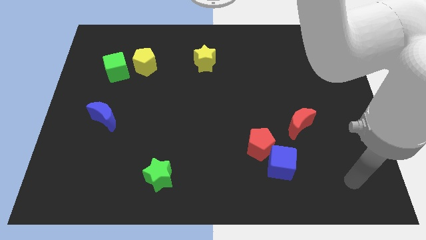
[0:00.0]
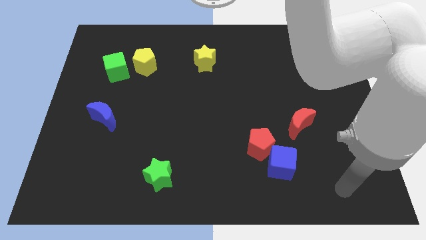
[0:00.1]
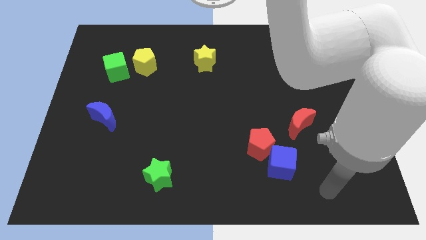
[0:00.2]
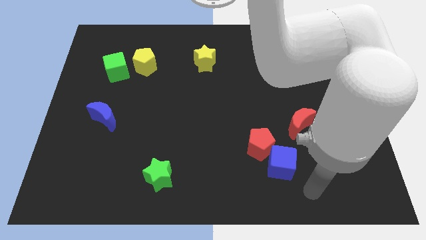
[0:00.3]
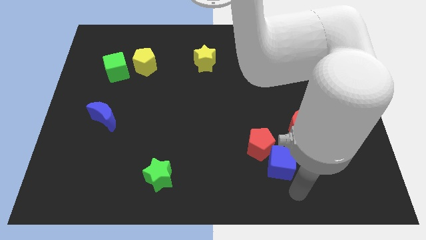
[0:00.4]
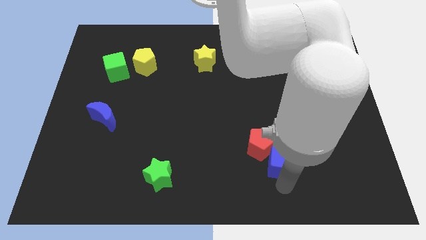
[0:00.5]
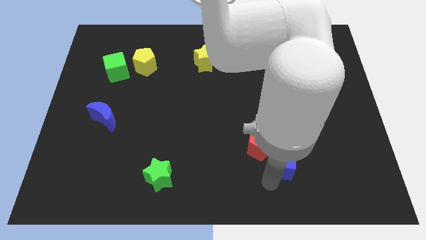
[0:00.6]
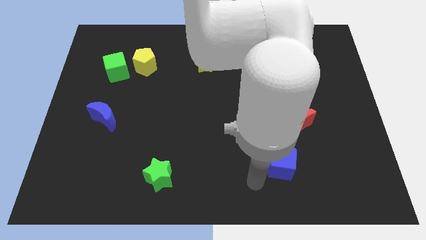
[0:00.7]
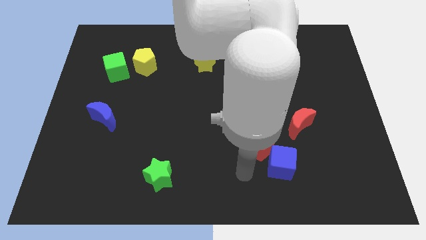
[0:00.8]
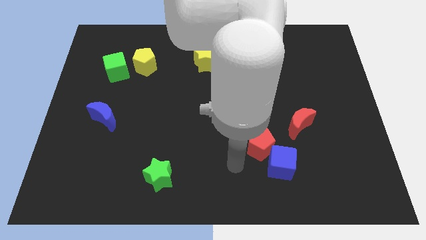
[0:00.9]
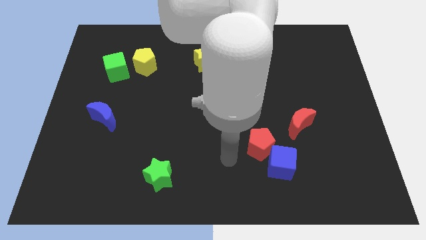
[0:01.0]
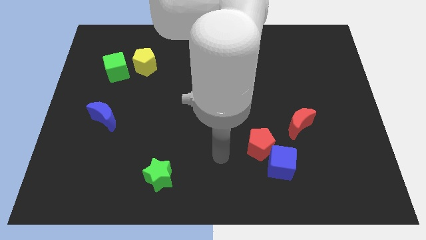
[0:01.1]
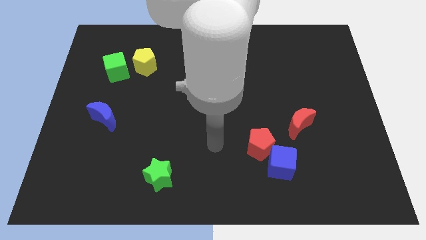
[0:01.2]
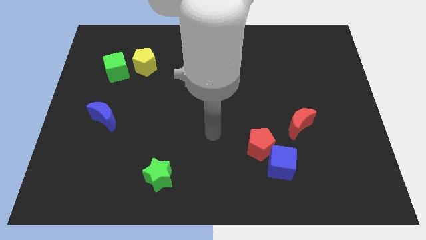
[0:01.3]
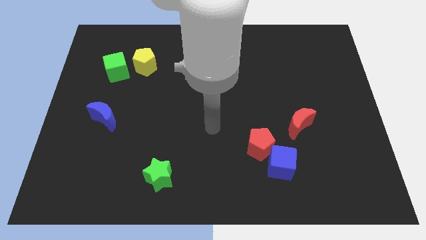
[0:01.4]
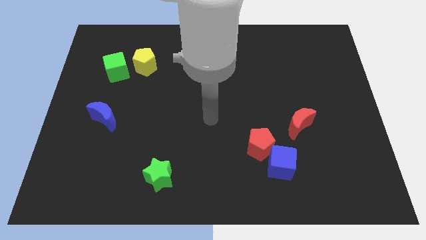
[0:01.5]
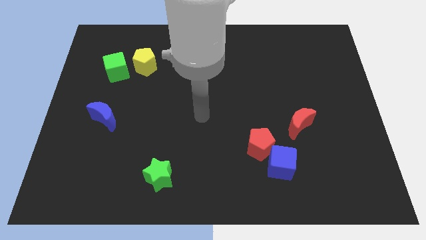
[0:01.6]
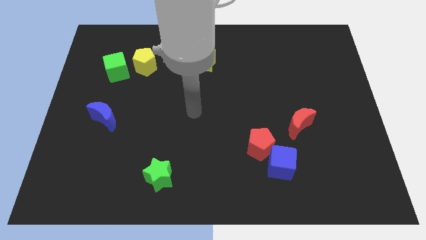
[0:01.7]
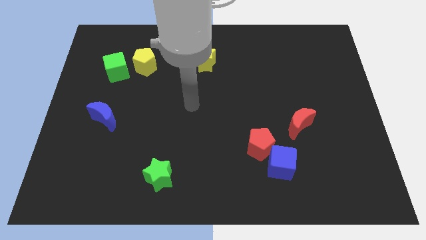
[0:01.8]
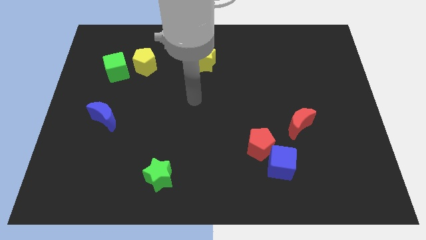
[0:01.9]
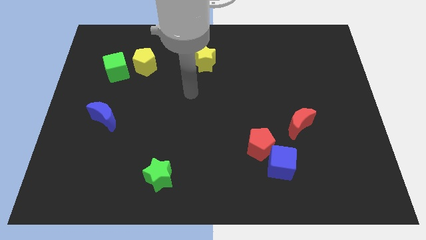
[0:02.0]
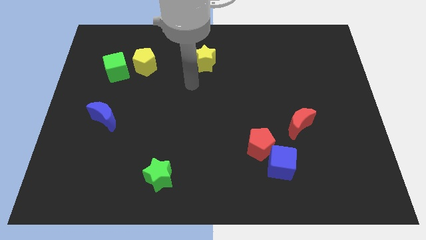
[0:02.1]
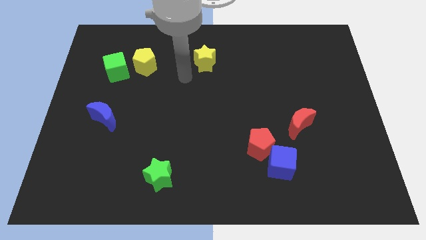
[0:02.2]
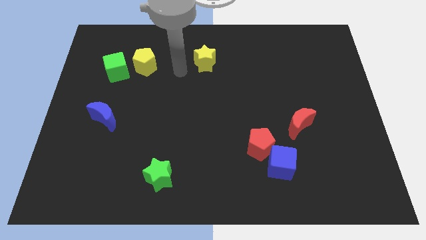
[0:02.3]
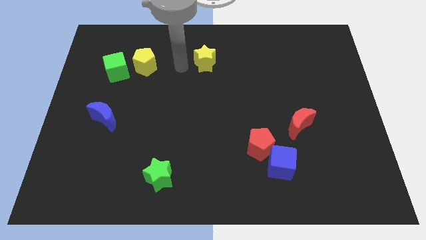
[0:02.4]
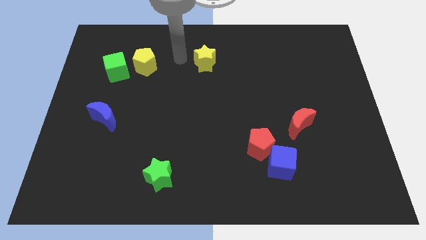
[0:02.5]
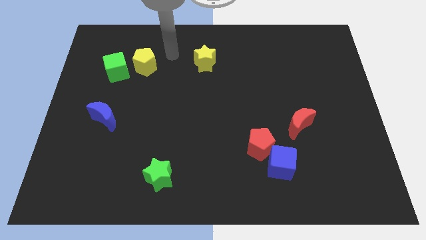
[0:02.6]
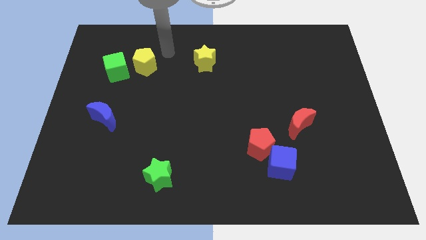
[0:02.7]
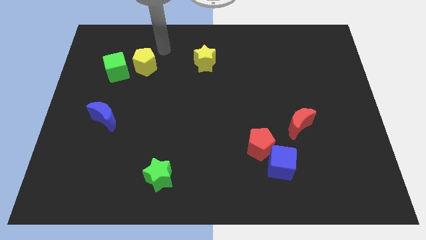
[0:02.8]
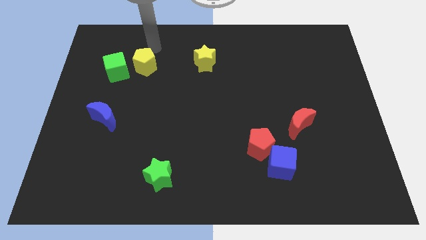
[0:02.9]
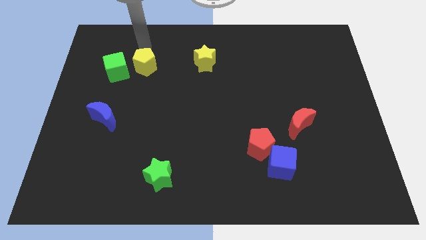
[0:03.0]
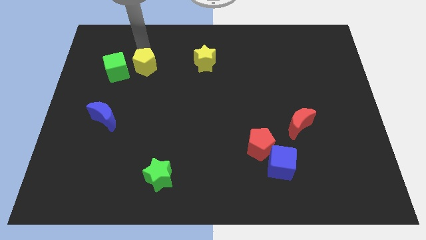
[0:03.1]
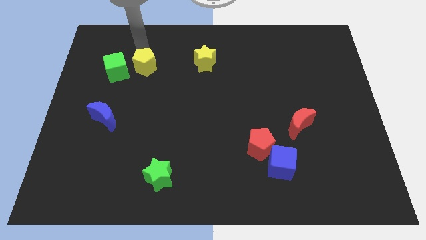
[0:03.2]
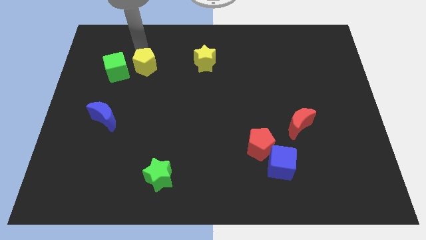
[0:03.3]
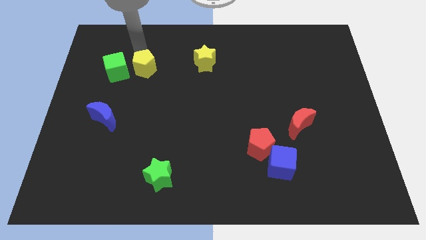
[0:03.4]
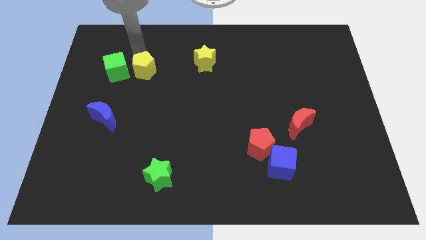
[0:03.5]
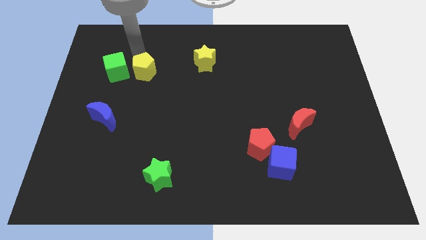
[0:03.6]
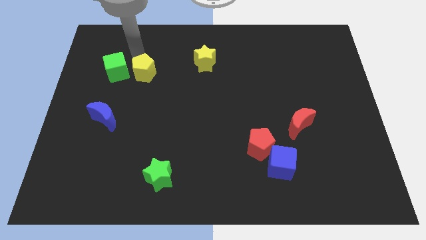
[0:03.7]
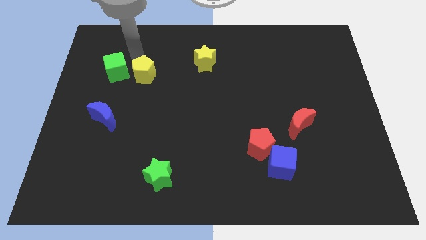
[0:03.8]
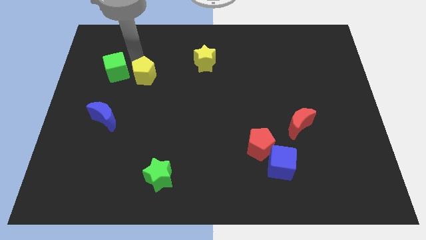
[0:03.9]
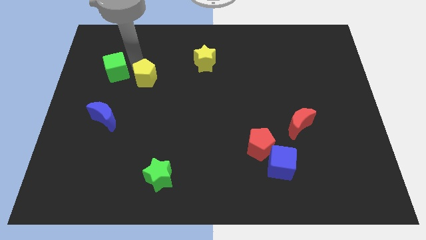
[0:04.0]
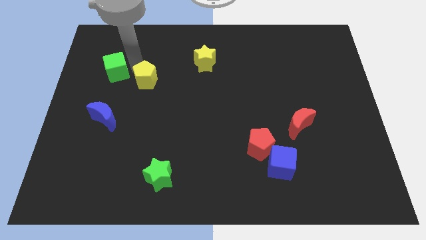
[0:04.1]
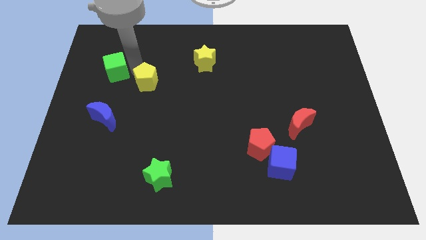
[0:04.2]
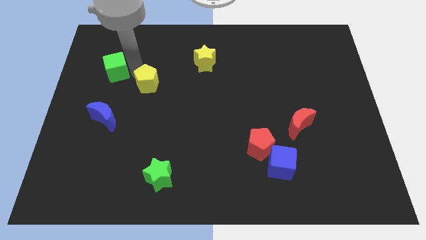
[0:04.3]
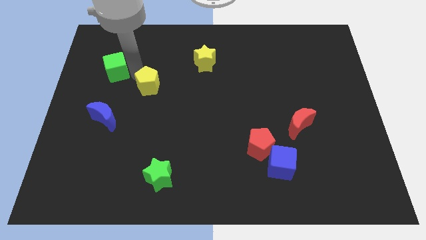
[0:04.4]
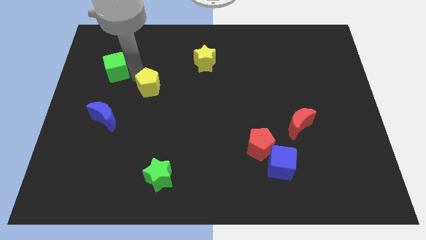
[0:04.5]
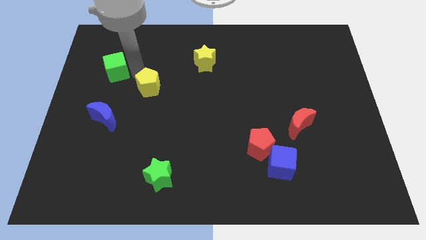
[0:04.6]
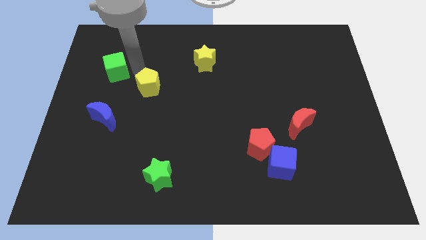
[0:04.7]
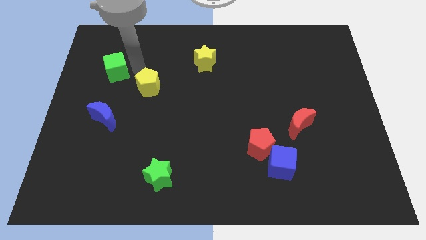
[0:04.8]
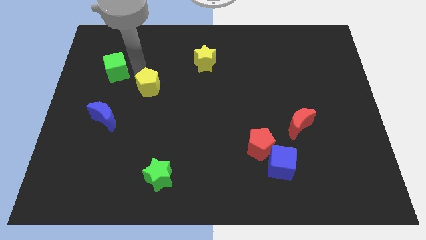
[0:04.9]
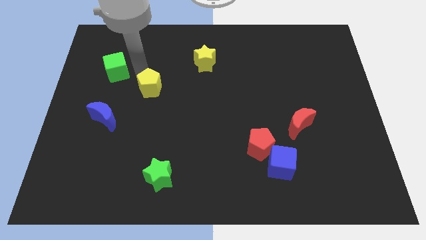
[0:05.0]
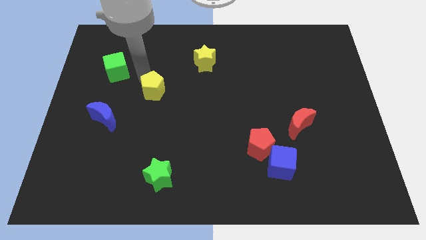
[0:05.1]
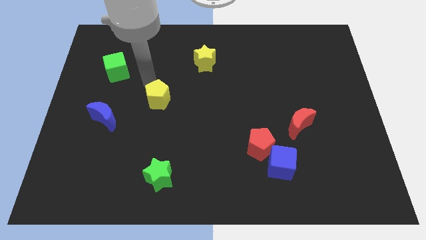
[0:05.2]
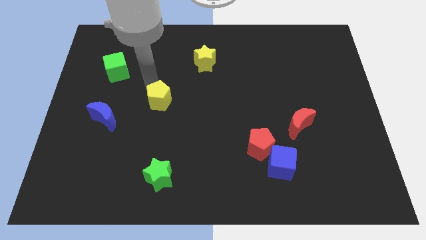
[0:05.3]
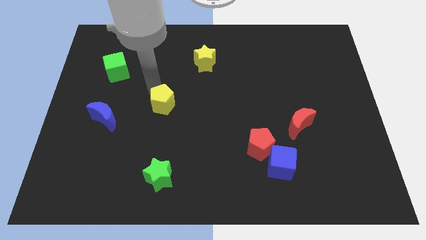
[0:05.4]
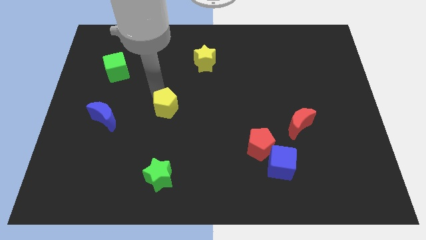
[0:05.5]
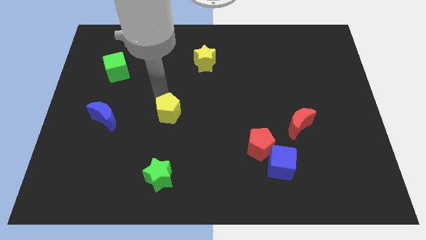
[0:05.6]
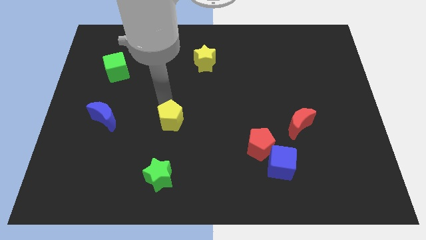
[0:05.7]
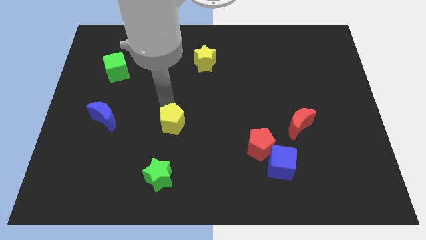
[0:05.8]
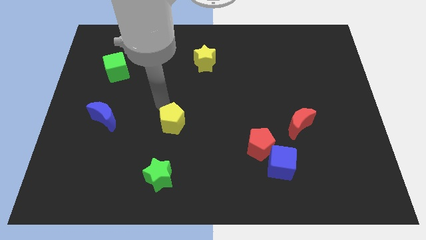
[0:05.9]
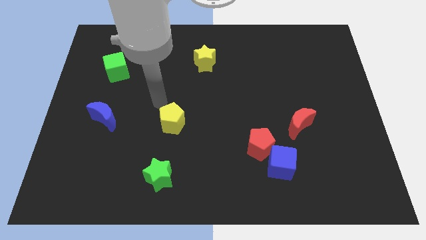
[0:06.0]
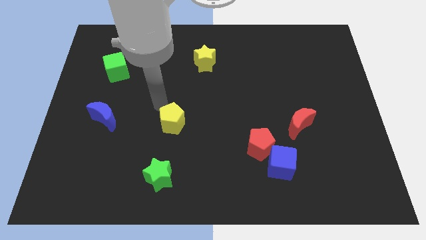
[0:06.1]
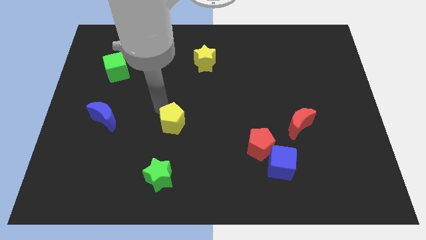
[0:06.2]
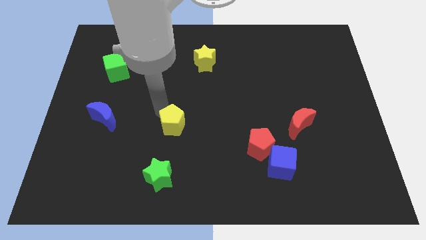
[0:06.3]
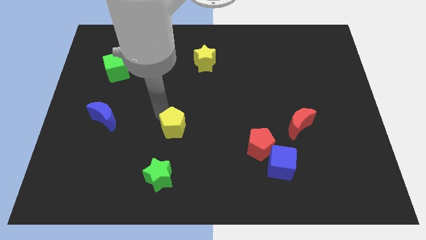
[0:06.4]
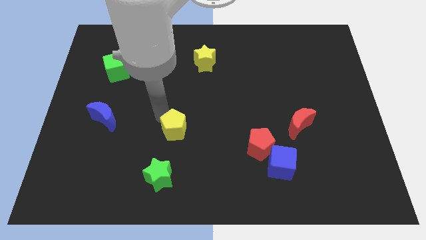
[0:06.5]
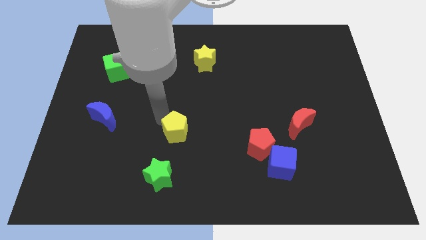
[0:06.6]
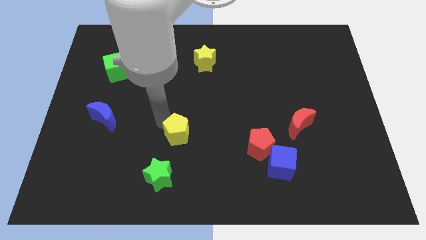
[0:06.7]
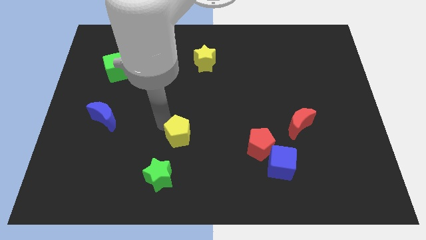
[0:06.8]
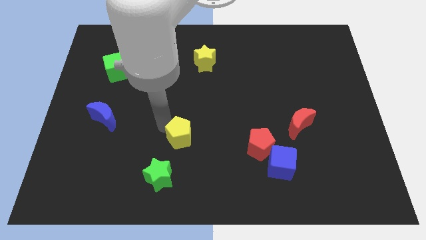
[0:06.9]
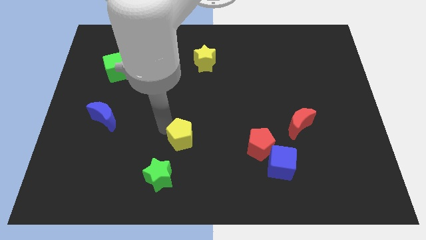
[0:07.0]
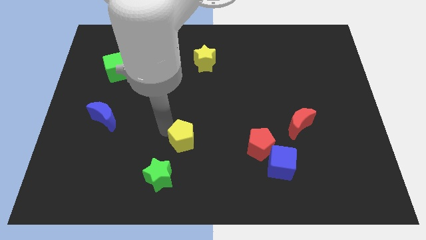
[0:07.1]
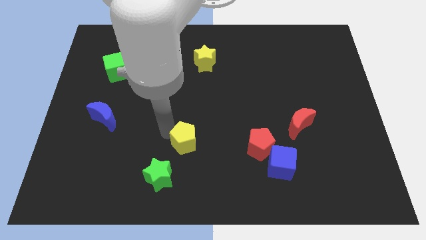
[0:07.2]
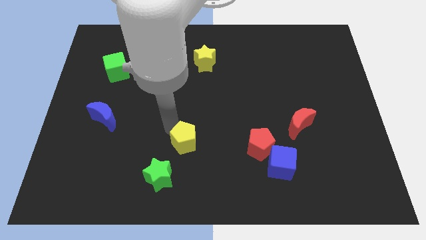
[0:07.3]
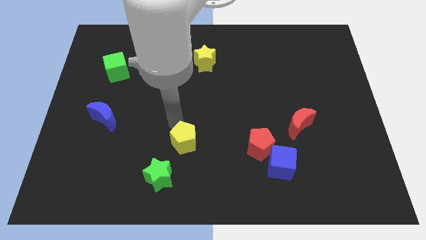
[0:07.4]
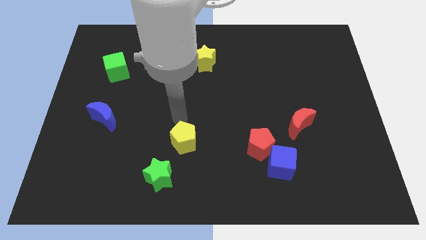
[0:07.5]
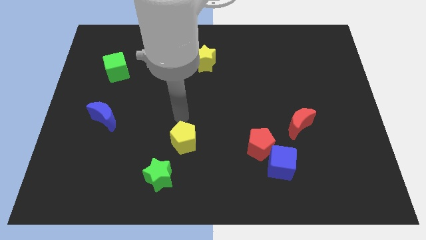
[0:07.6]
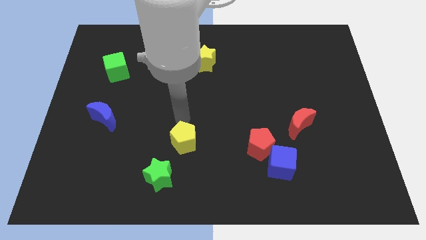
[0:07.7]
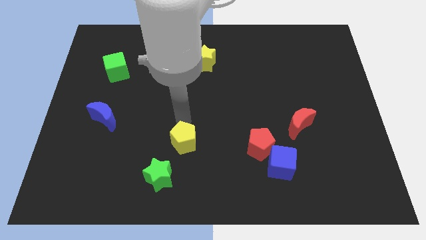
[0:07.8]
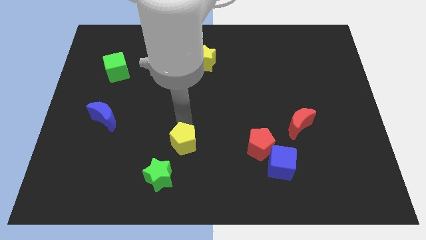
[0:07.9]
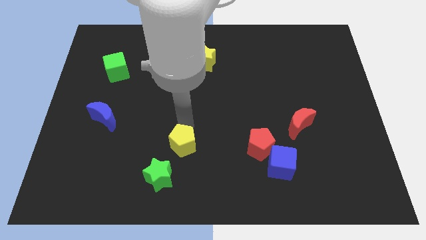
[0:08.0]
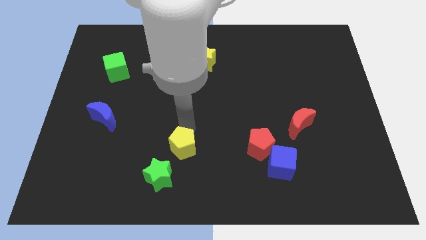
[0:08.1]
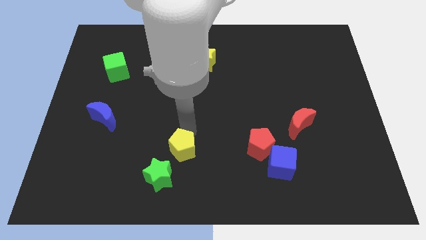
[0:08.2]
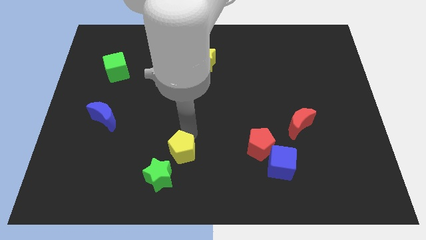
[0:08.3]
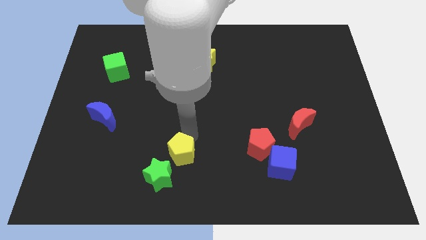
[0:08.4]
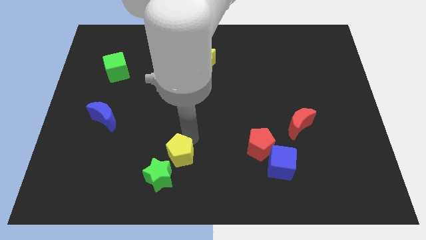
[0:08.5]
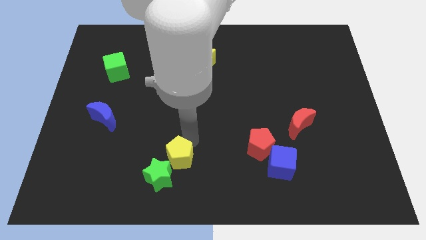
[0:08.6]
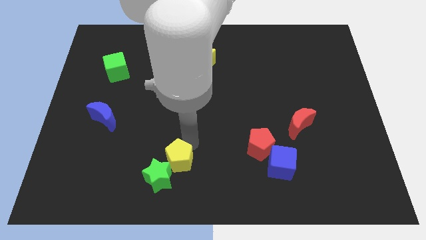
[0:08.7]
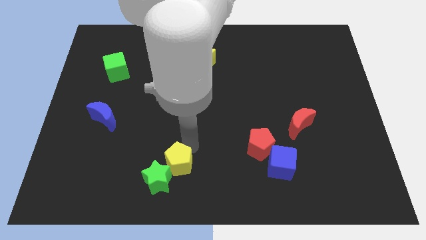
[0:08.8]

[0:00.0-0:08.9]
put the yellow pentagon to the bottom side
